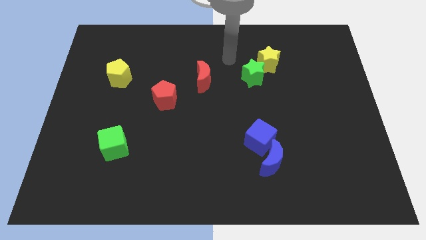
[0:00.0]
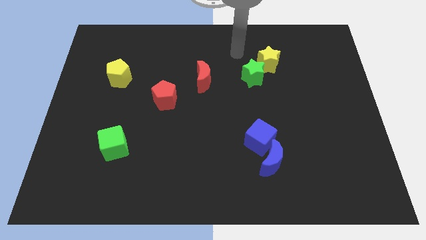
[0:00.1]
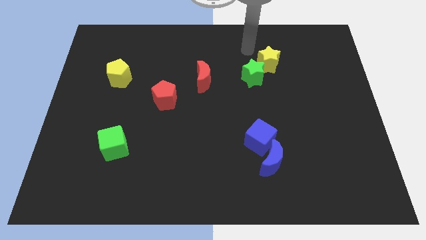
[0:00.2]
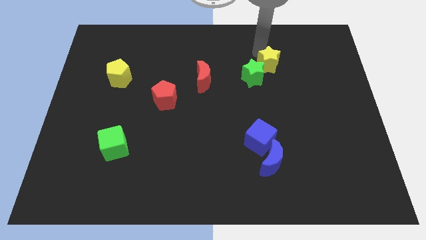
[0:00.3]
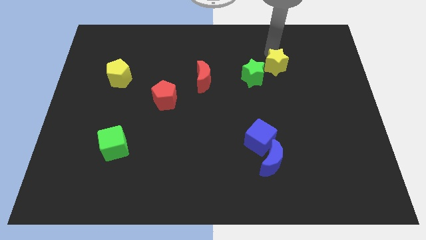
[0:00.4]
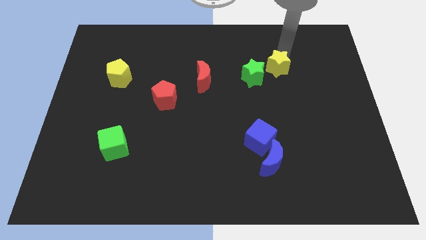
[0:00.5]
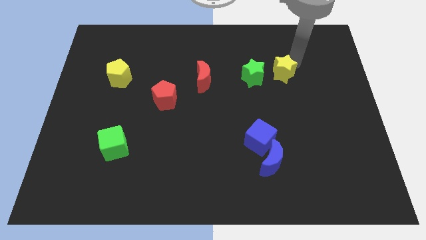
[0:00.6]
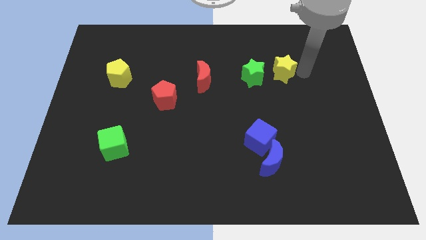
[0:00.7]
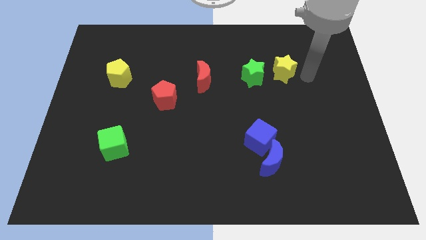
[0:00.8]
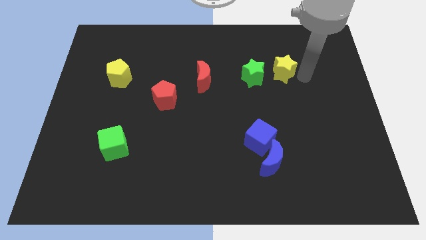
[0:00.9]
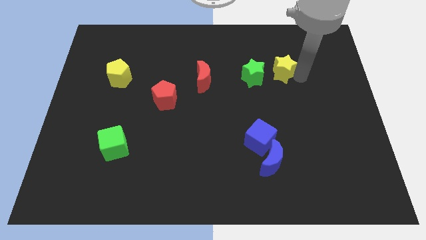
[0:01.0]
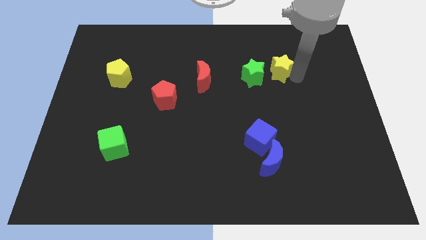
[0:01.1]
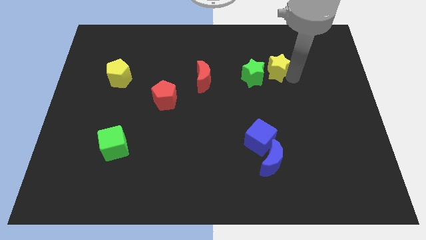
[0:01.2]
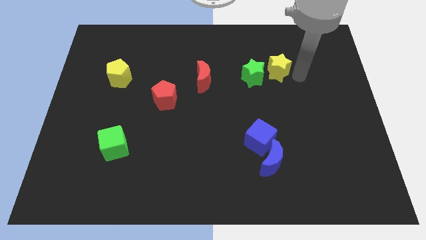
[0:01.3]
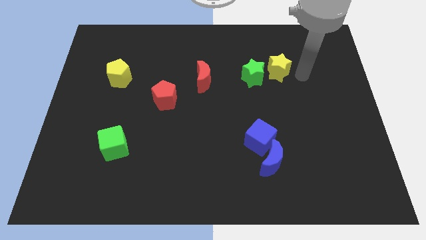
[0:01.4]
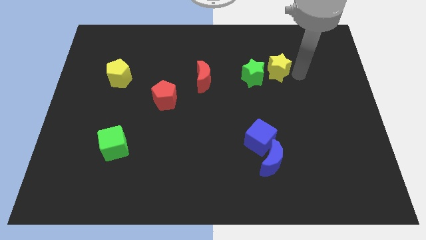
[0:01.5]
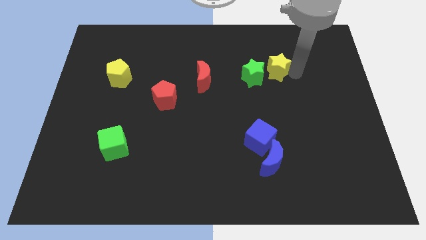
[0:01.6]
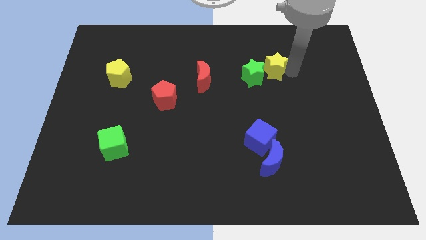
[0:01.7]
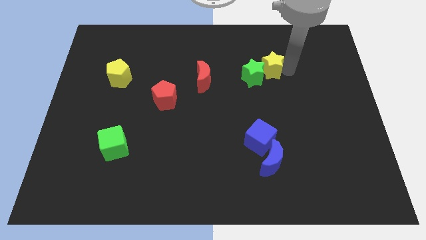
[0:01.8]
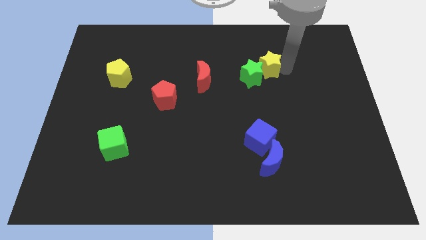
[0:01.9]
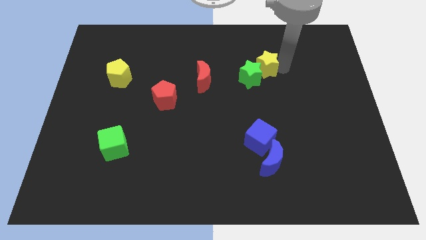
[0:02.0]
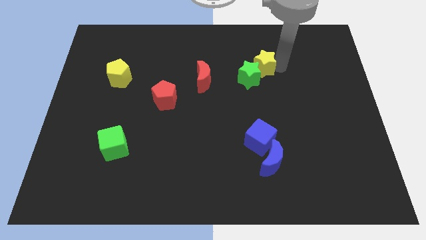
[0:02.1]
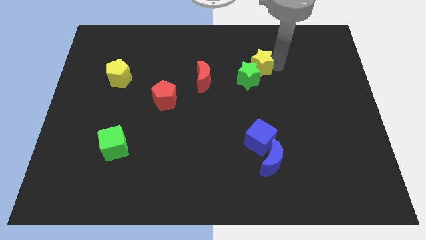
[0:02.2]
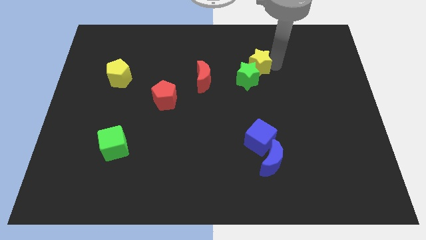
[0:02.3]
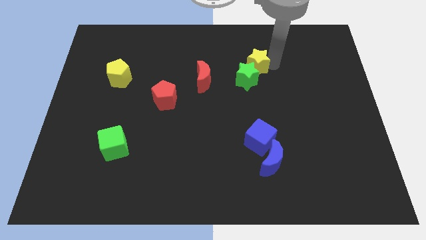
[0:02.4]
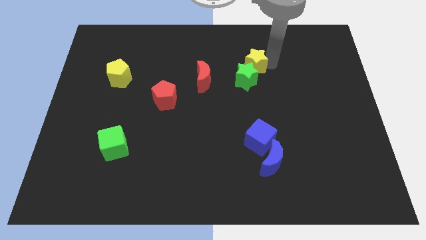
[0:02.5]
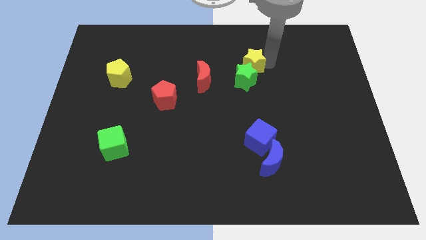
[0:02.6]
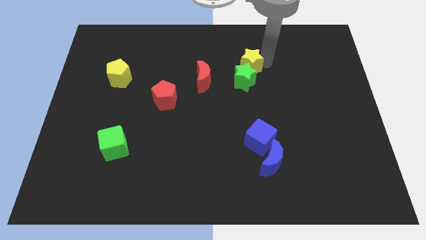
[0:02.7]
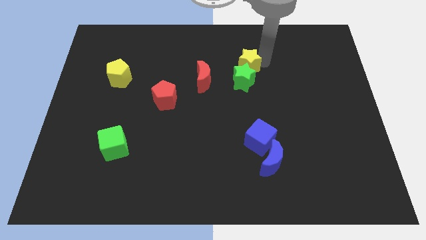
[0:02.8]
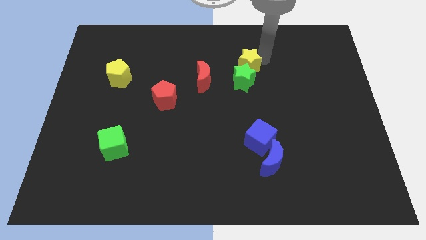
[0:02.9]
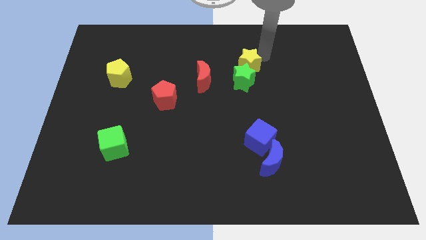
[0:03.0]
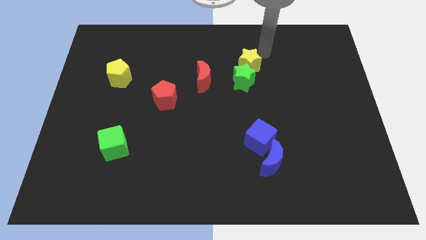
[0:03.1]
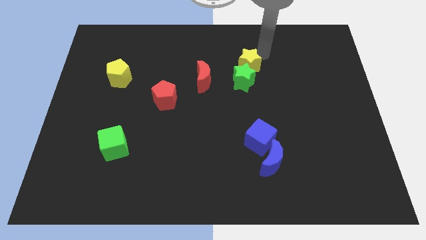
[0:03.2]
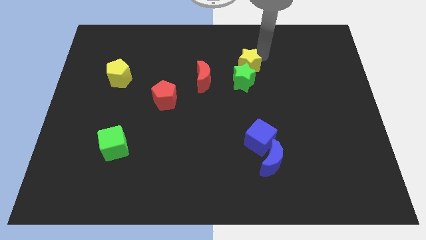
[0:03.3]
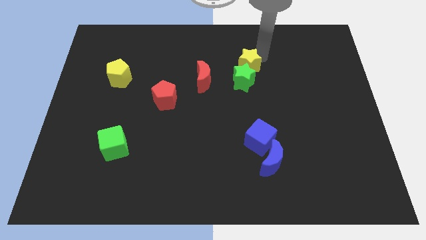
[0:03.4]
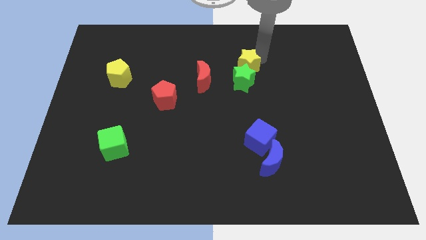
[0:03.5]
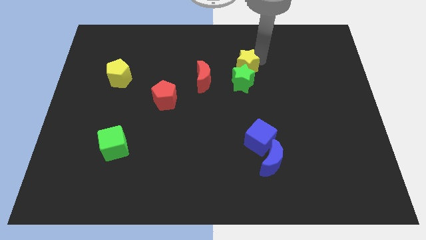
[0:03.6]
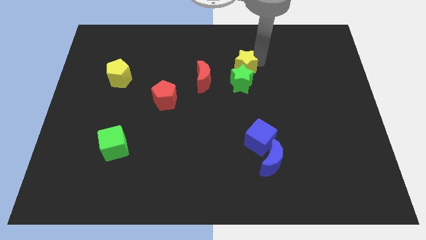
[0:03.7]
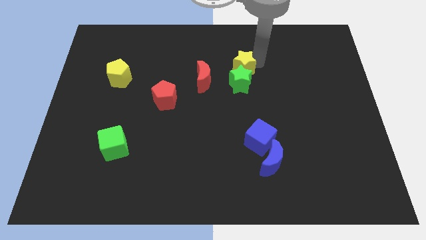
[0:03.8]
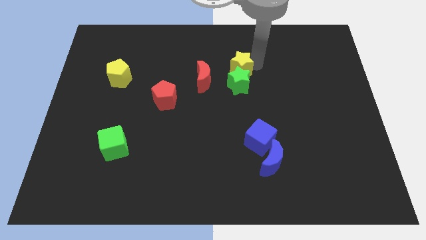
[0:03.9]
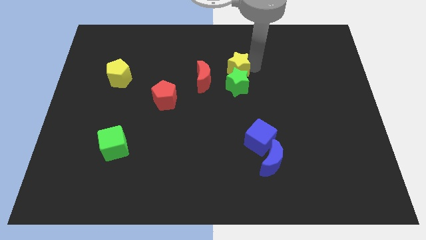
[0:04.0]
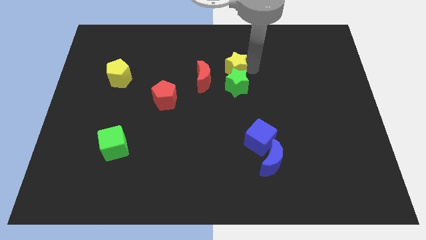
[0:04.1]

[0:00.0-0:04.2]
slightly slide the yellow star downwards and then left

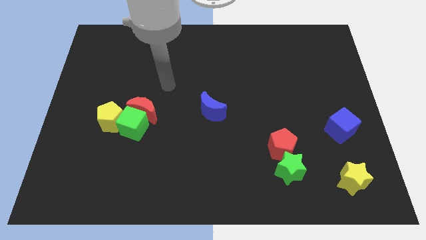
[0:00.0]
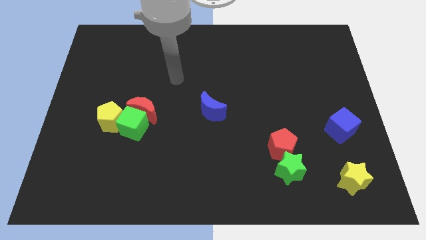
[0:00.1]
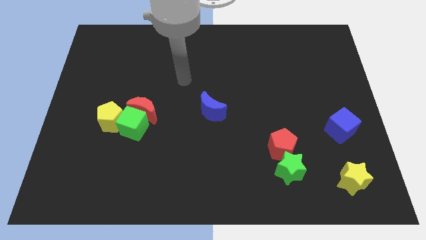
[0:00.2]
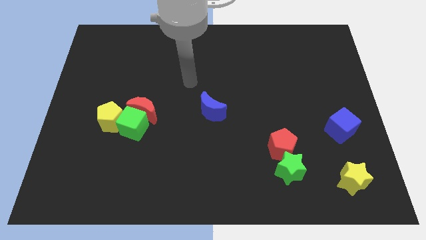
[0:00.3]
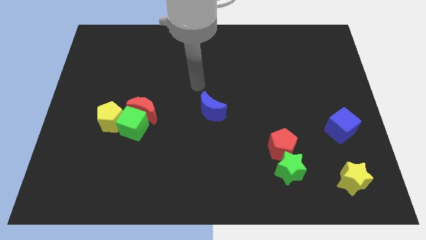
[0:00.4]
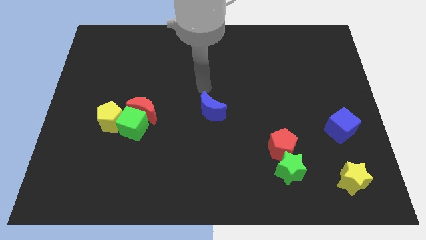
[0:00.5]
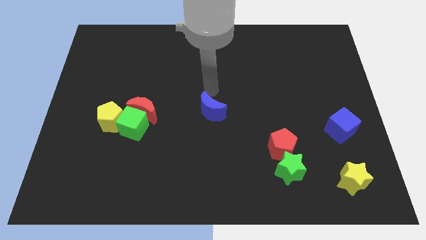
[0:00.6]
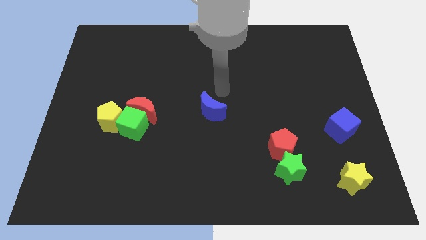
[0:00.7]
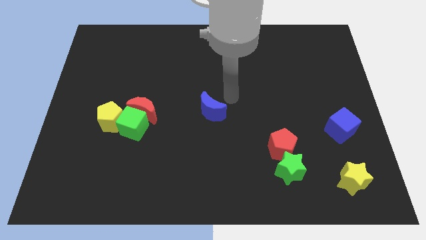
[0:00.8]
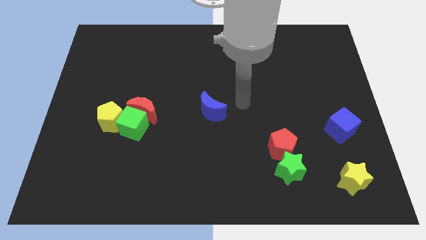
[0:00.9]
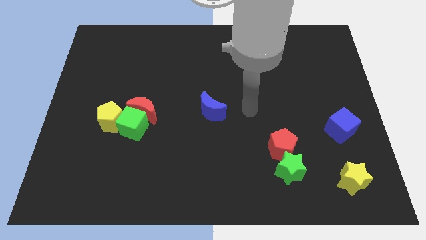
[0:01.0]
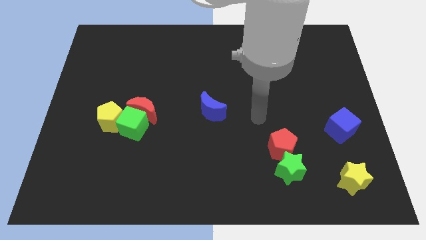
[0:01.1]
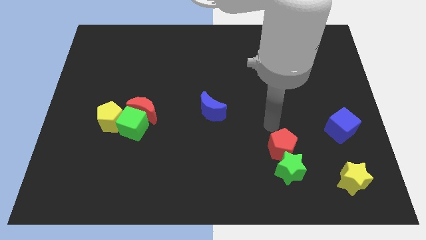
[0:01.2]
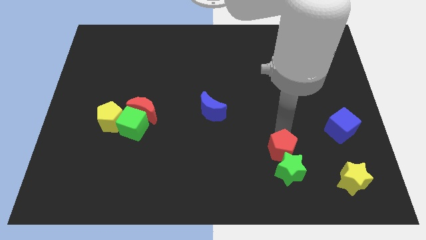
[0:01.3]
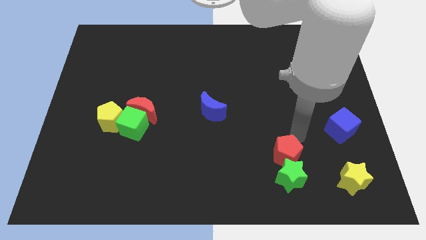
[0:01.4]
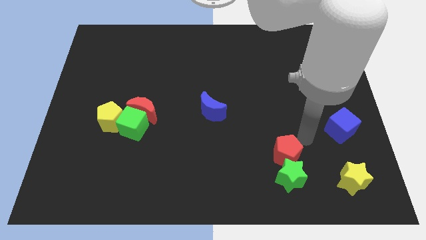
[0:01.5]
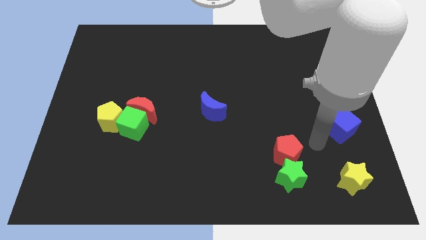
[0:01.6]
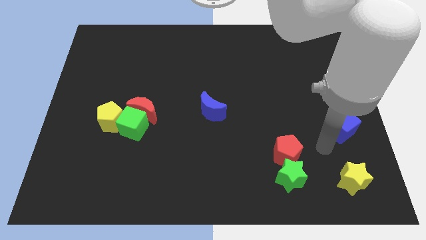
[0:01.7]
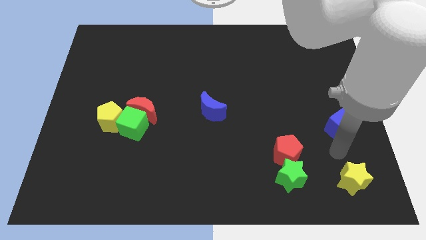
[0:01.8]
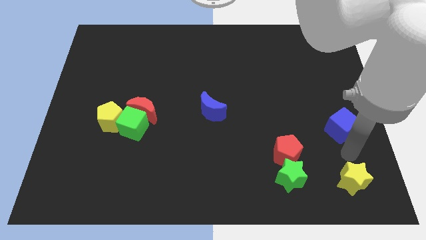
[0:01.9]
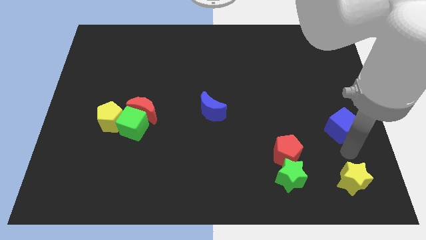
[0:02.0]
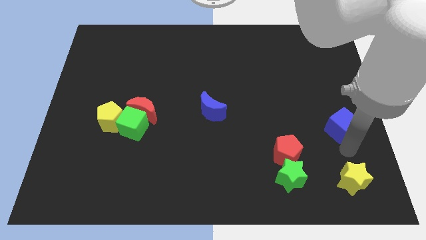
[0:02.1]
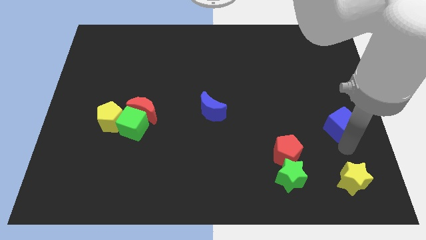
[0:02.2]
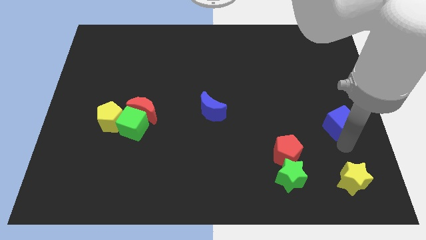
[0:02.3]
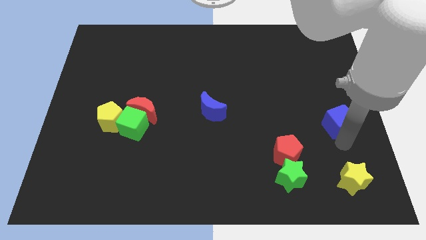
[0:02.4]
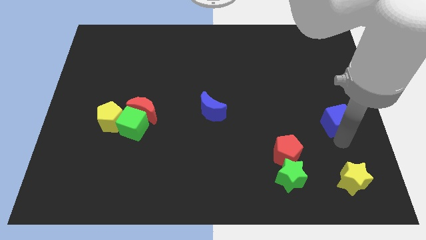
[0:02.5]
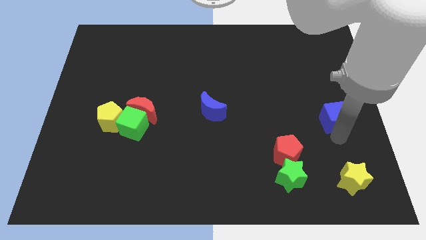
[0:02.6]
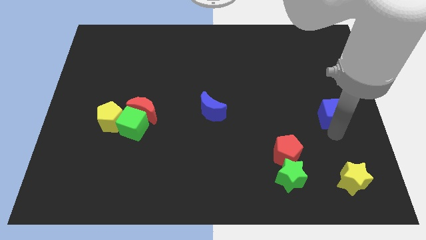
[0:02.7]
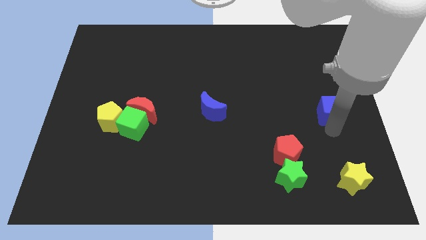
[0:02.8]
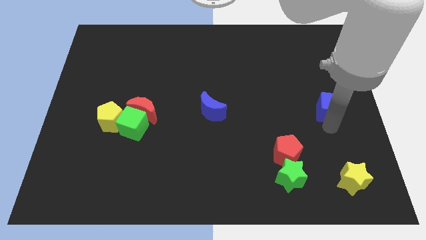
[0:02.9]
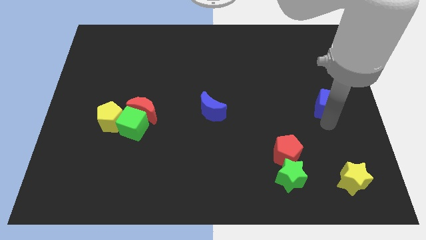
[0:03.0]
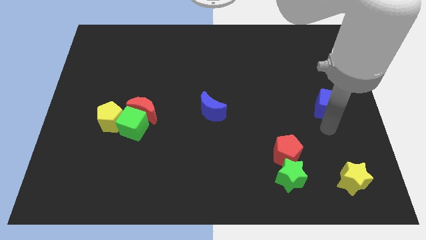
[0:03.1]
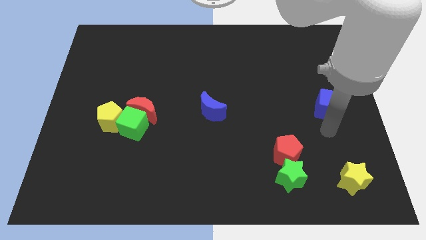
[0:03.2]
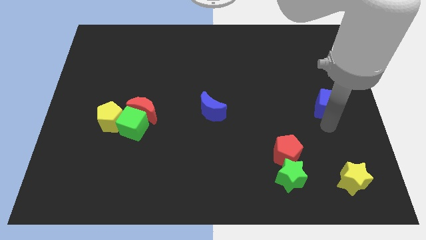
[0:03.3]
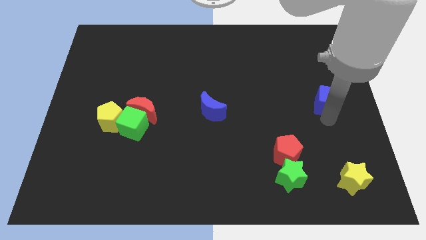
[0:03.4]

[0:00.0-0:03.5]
slide the blue cube upwards somewhat
